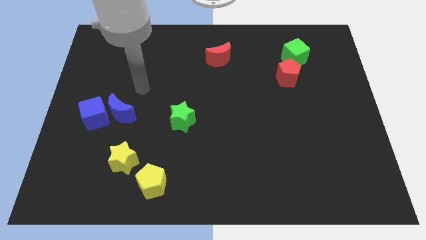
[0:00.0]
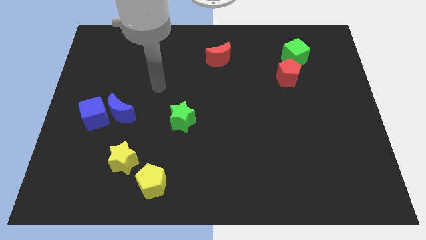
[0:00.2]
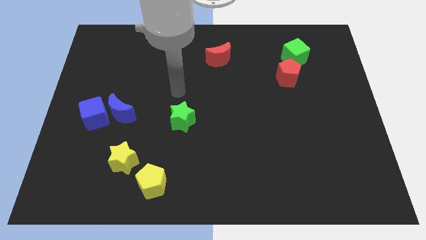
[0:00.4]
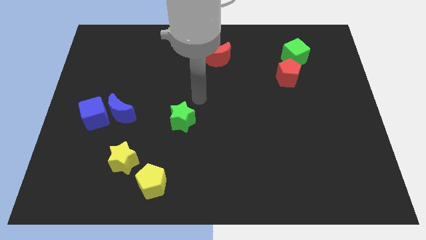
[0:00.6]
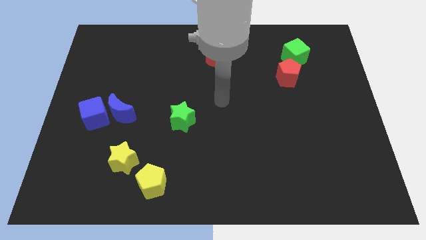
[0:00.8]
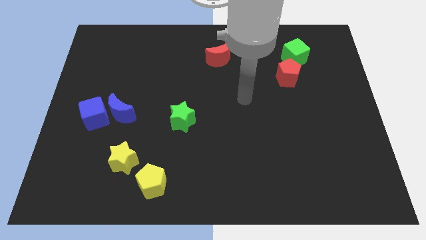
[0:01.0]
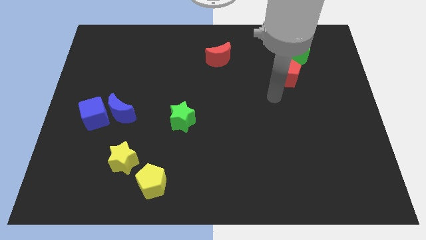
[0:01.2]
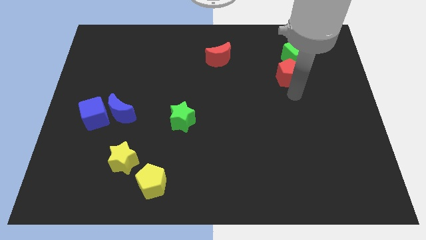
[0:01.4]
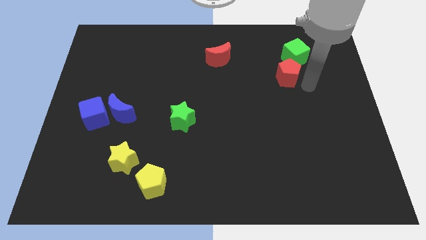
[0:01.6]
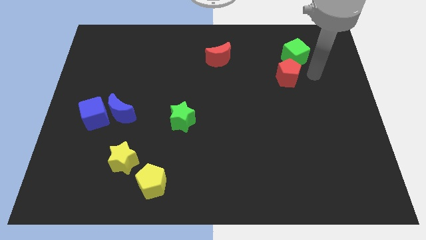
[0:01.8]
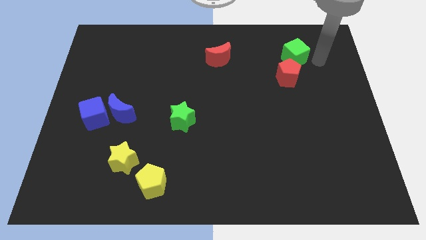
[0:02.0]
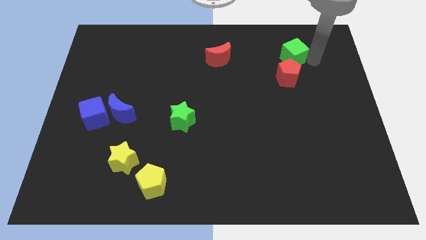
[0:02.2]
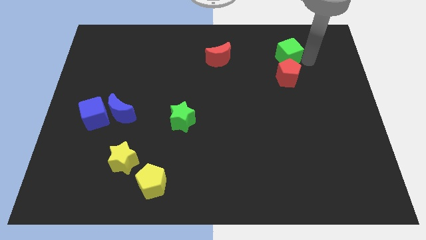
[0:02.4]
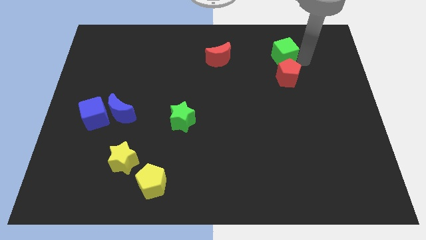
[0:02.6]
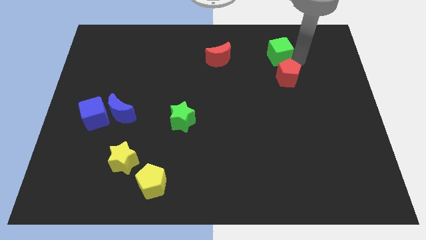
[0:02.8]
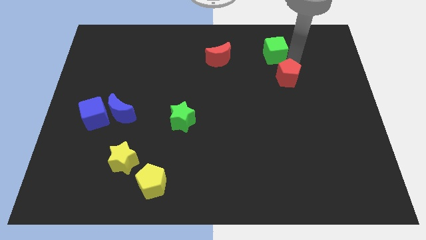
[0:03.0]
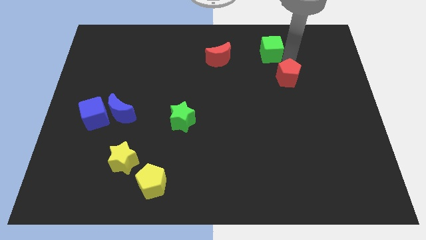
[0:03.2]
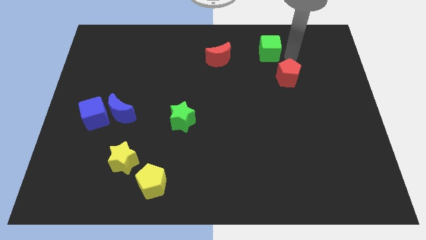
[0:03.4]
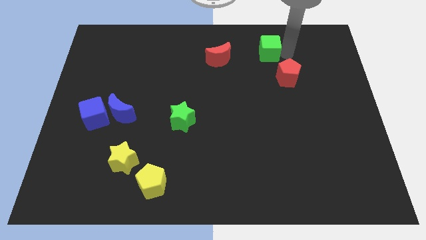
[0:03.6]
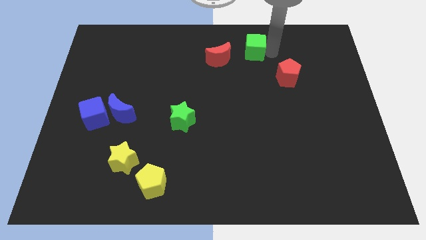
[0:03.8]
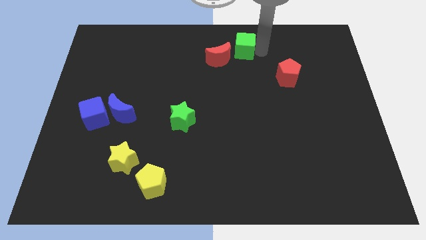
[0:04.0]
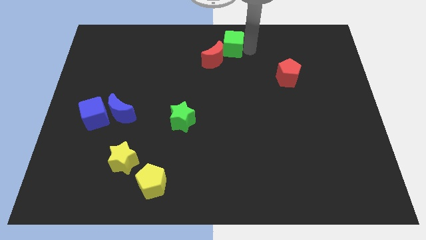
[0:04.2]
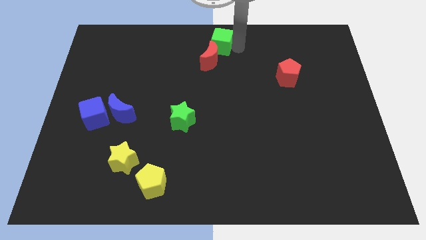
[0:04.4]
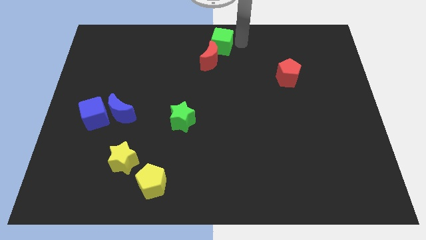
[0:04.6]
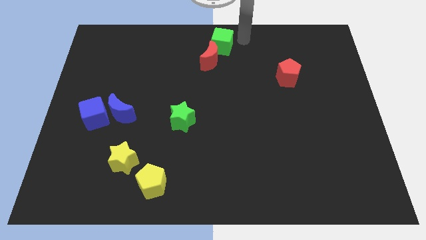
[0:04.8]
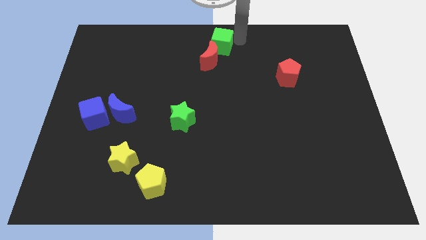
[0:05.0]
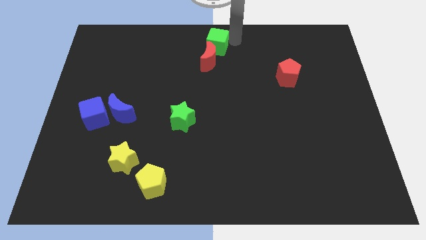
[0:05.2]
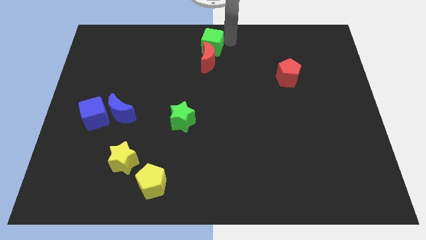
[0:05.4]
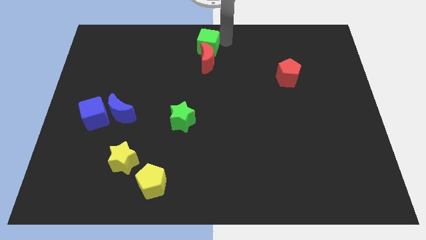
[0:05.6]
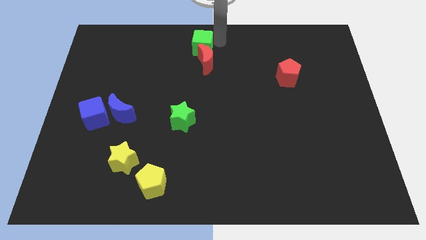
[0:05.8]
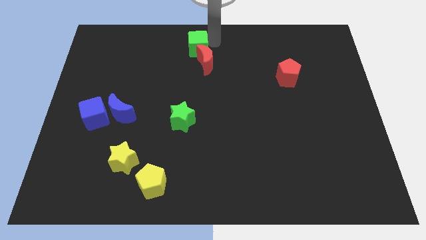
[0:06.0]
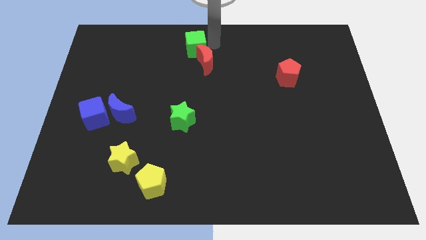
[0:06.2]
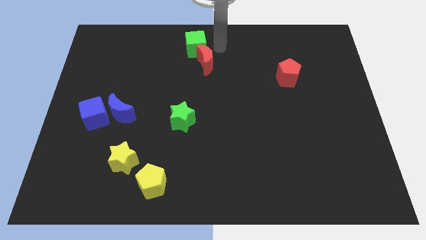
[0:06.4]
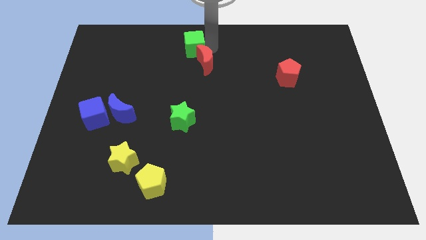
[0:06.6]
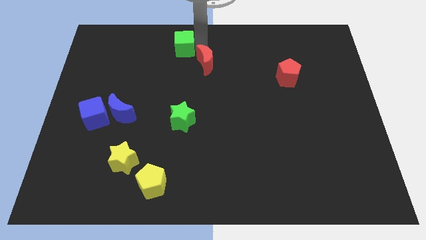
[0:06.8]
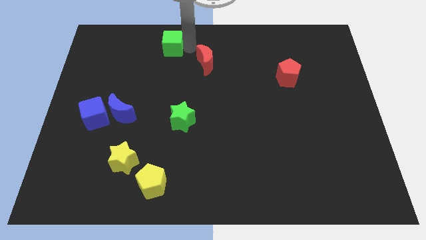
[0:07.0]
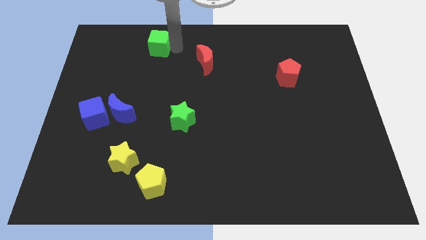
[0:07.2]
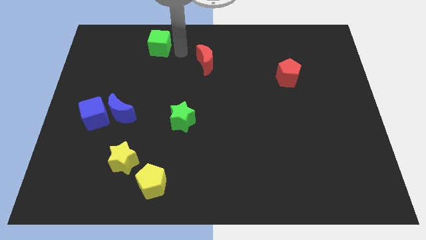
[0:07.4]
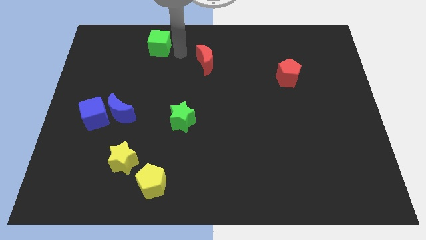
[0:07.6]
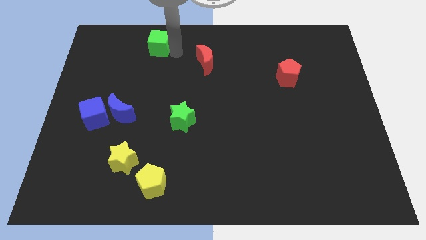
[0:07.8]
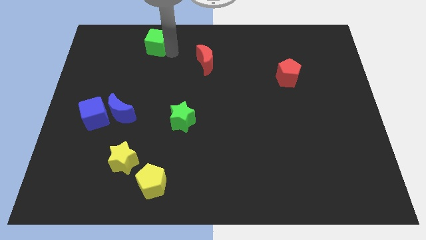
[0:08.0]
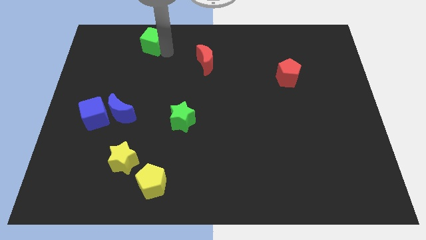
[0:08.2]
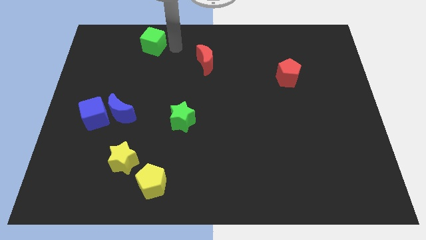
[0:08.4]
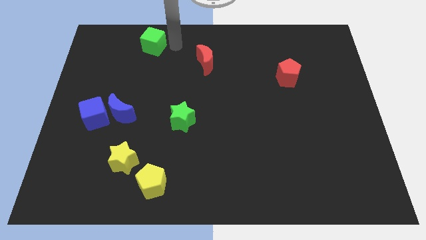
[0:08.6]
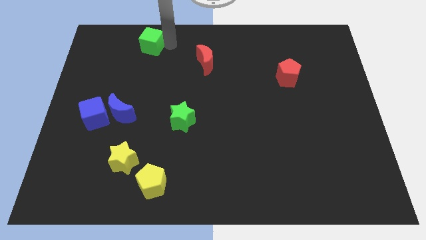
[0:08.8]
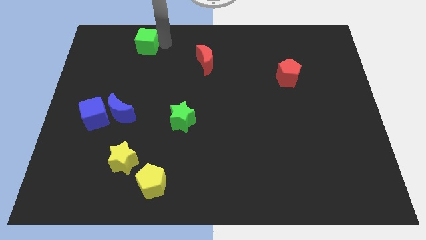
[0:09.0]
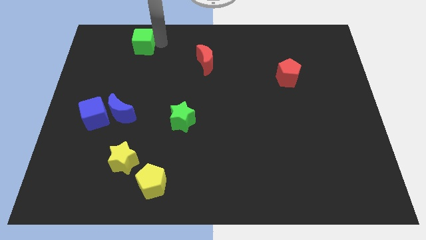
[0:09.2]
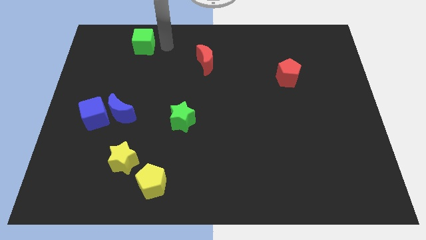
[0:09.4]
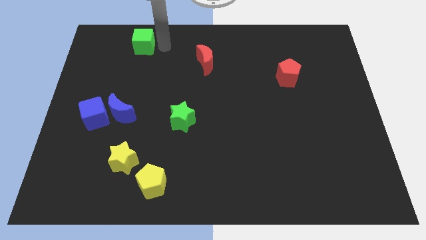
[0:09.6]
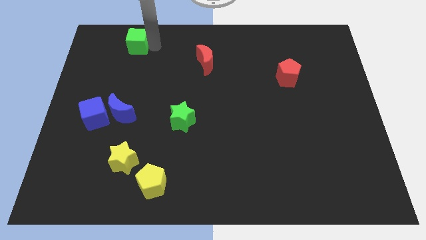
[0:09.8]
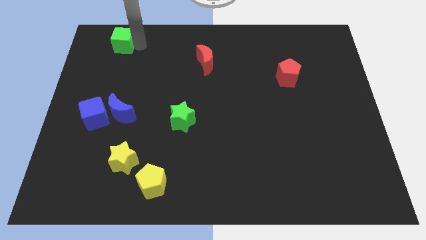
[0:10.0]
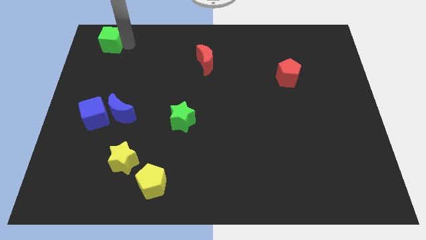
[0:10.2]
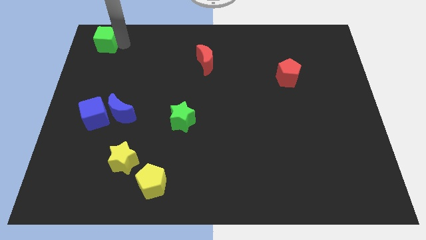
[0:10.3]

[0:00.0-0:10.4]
put the green cube to the top left

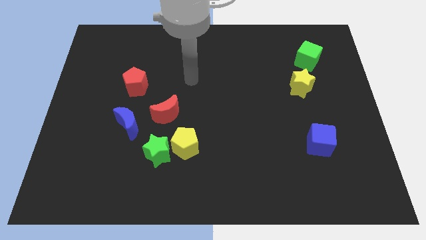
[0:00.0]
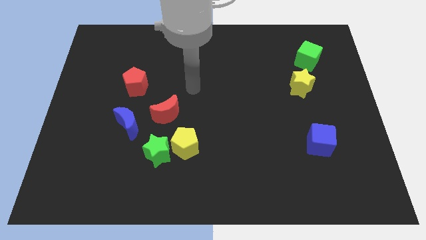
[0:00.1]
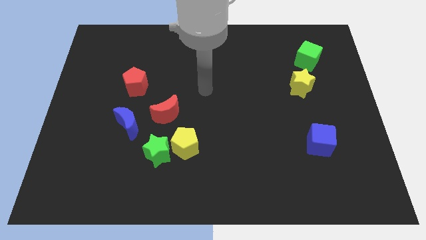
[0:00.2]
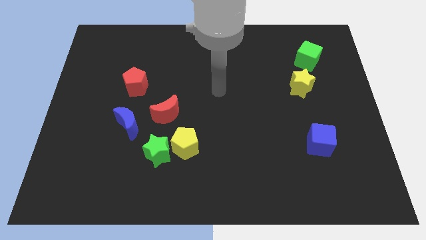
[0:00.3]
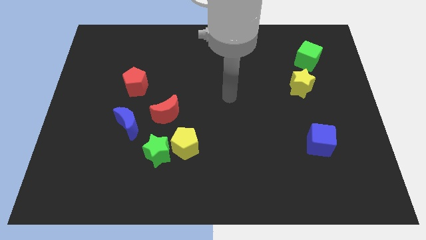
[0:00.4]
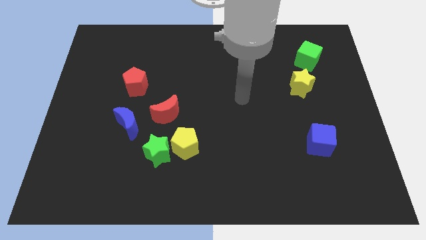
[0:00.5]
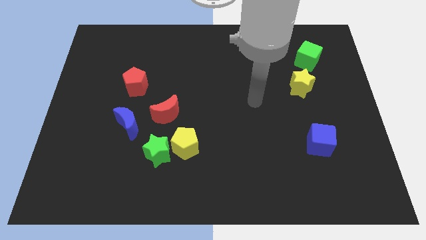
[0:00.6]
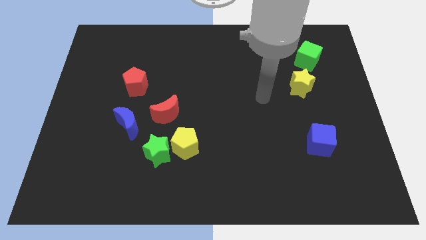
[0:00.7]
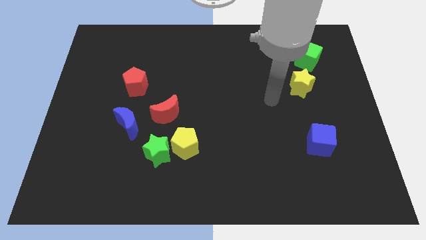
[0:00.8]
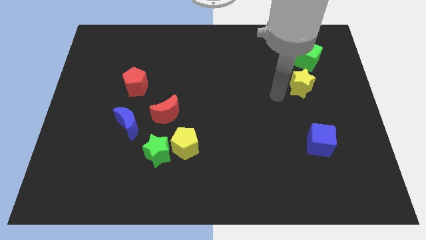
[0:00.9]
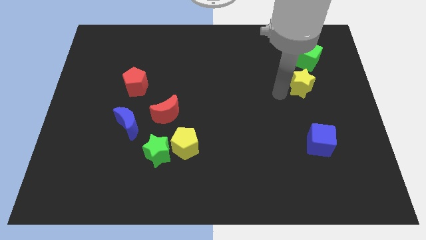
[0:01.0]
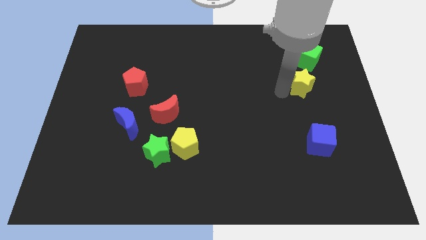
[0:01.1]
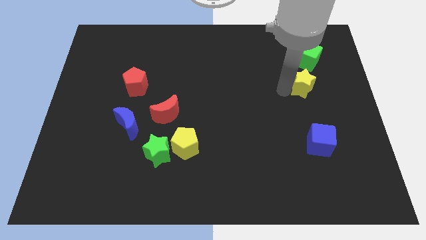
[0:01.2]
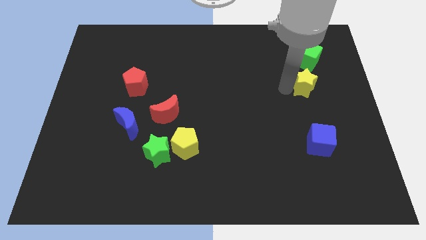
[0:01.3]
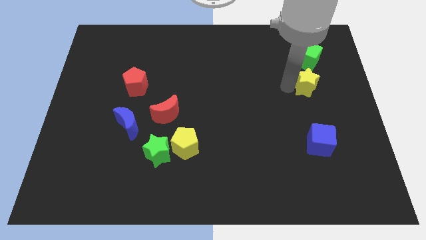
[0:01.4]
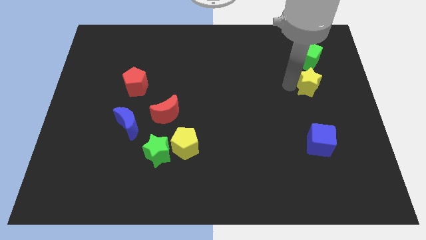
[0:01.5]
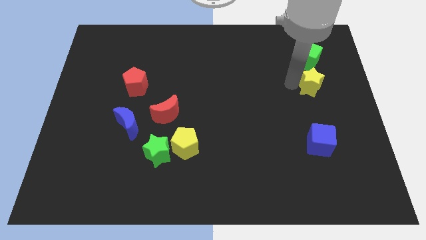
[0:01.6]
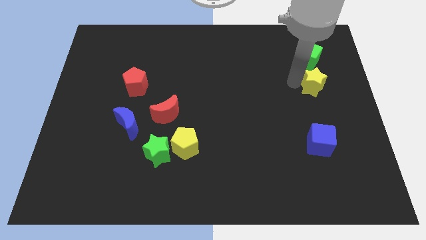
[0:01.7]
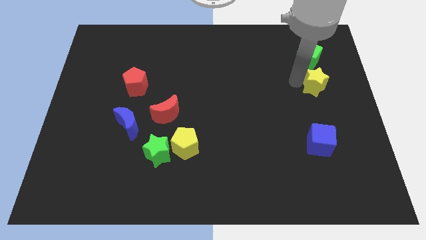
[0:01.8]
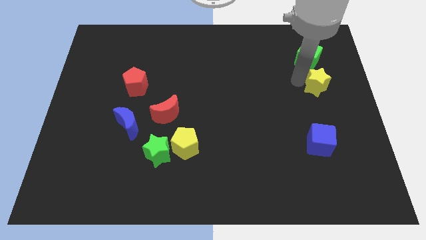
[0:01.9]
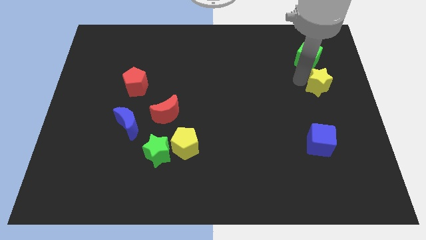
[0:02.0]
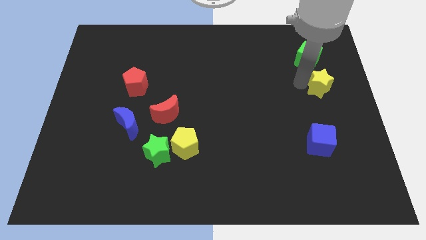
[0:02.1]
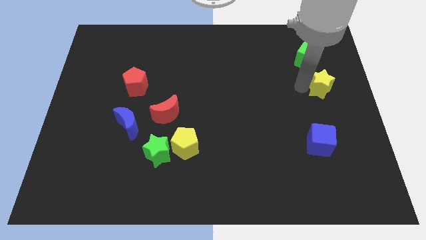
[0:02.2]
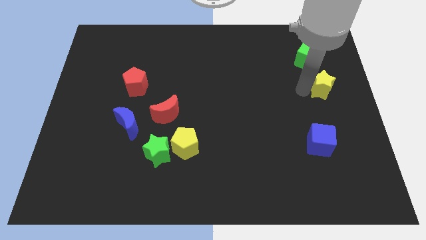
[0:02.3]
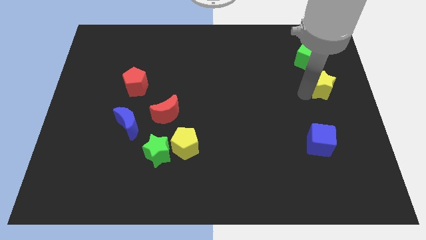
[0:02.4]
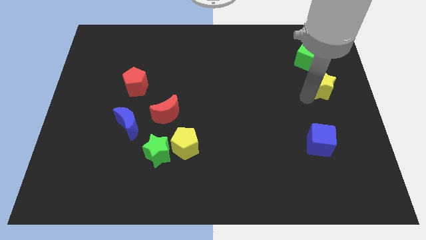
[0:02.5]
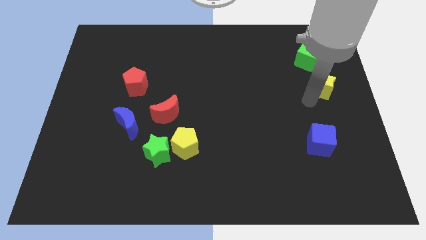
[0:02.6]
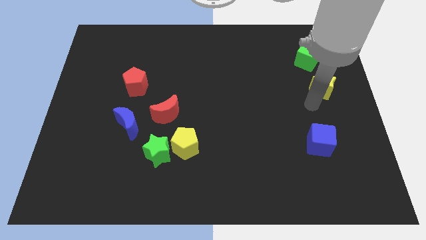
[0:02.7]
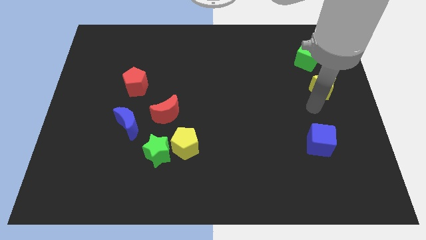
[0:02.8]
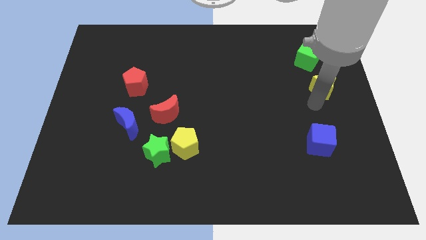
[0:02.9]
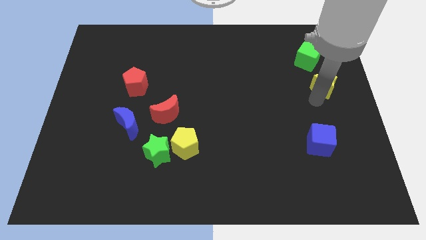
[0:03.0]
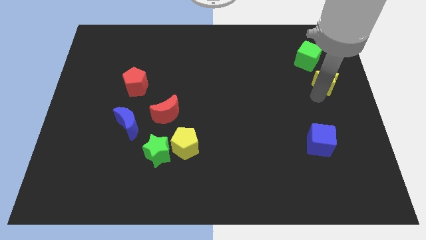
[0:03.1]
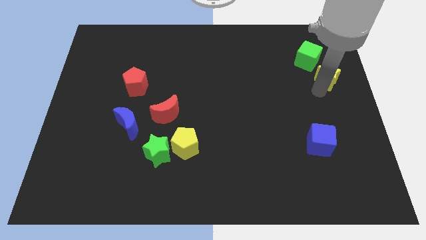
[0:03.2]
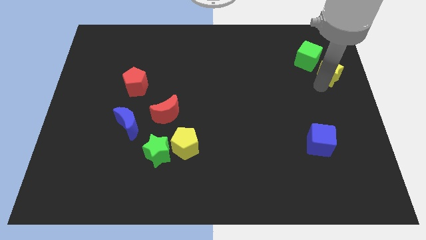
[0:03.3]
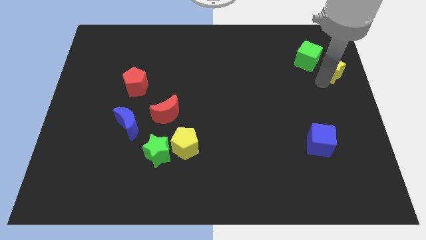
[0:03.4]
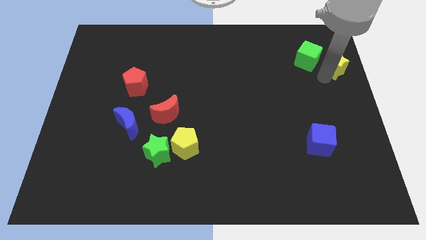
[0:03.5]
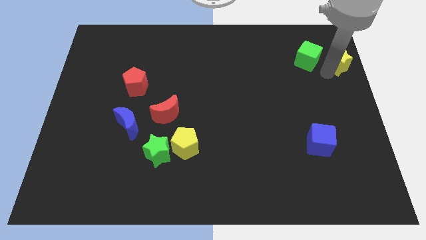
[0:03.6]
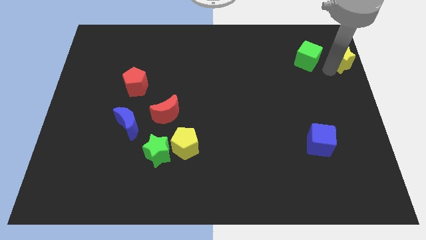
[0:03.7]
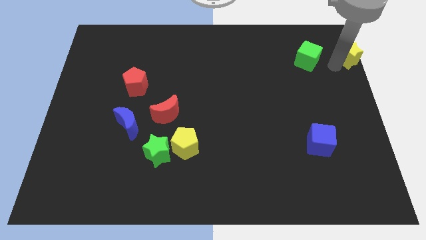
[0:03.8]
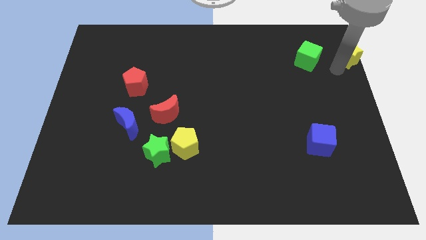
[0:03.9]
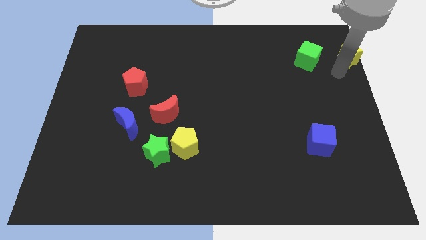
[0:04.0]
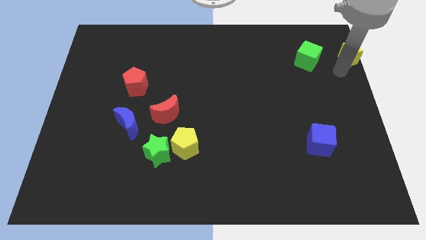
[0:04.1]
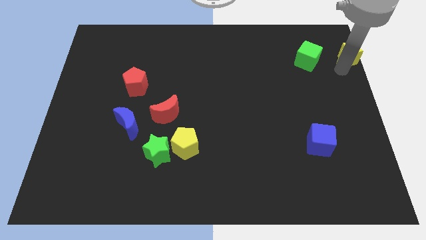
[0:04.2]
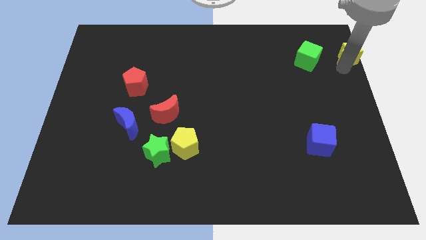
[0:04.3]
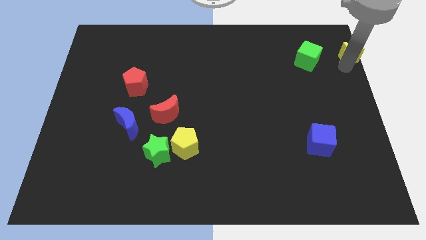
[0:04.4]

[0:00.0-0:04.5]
push the yellow star to the top right corner
